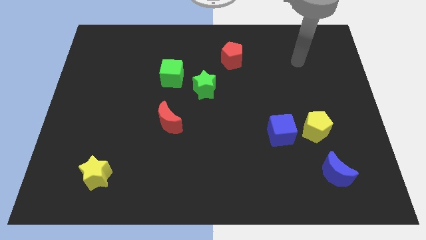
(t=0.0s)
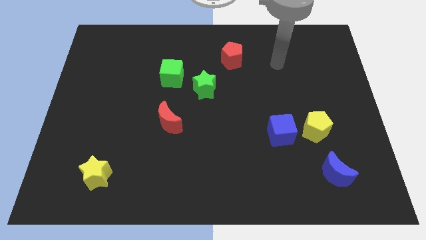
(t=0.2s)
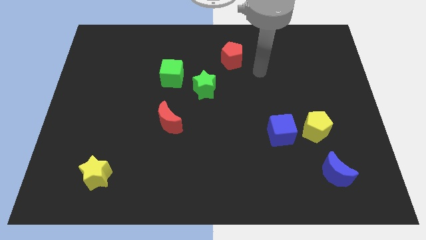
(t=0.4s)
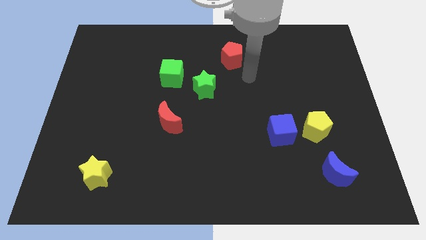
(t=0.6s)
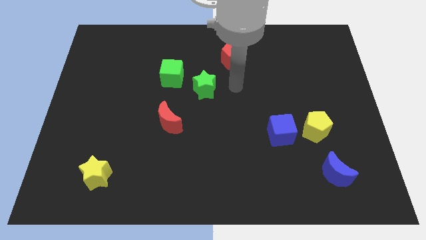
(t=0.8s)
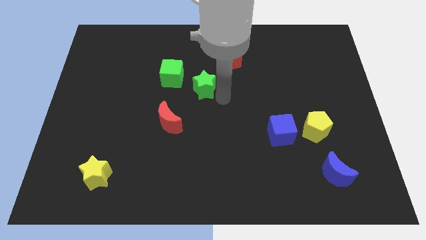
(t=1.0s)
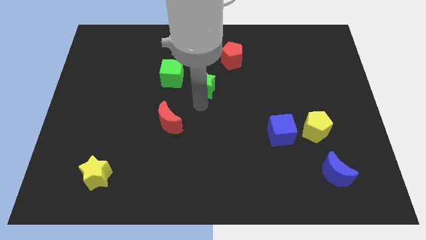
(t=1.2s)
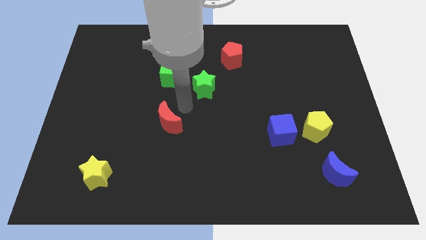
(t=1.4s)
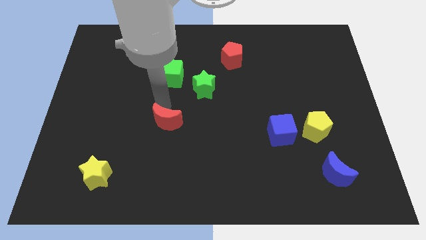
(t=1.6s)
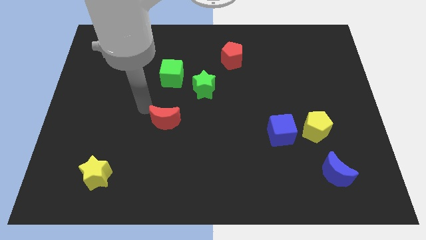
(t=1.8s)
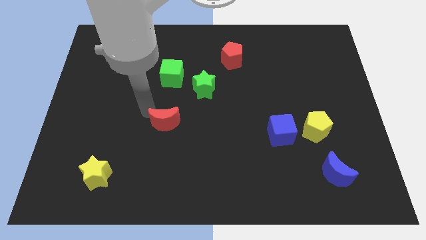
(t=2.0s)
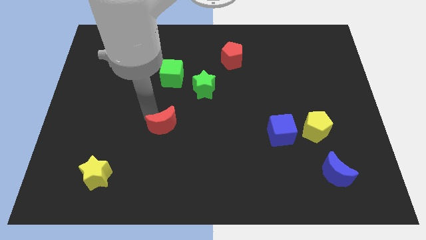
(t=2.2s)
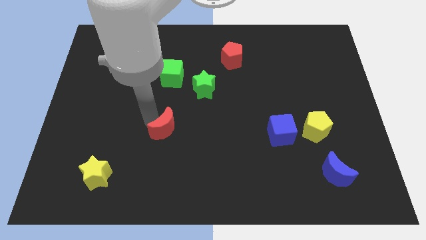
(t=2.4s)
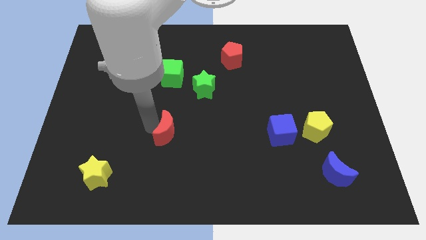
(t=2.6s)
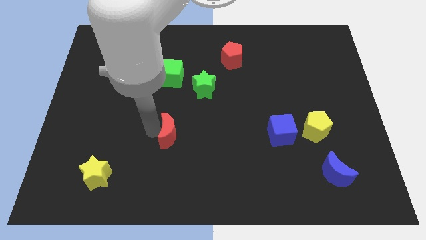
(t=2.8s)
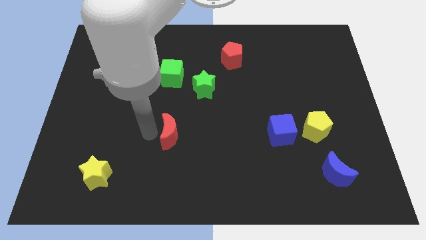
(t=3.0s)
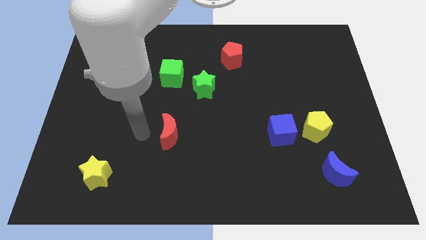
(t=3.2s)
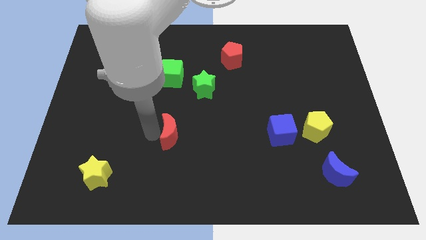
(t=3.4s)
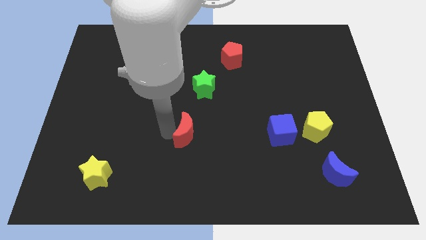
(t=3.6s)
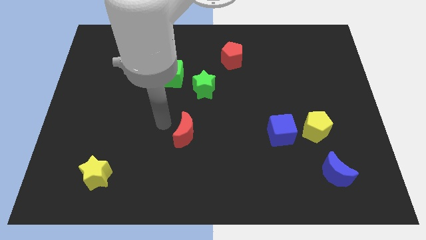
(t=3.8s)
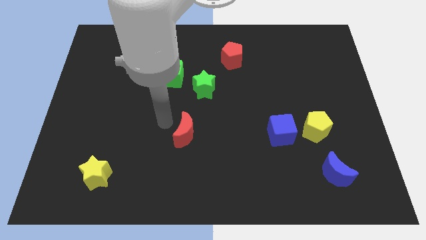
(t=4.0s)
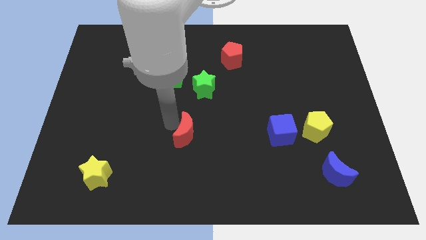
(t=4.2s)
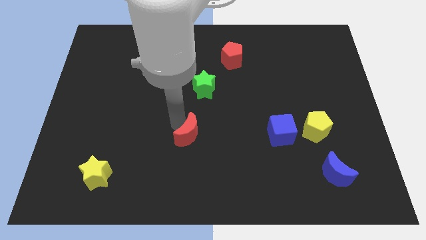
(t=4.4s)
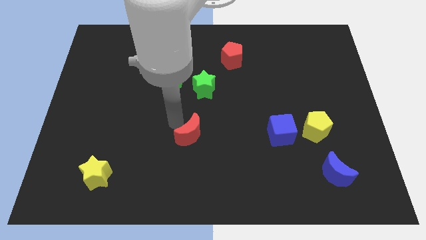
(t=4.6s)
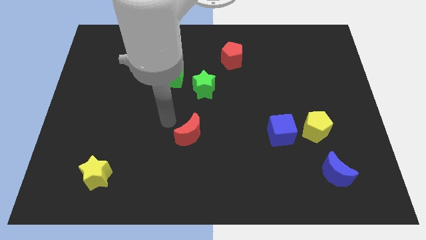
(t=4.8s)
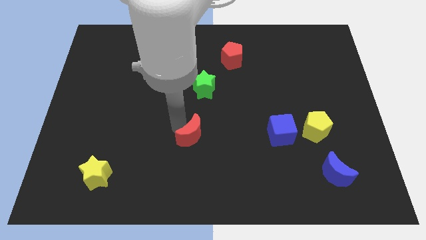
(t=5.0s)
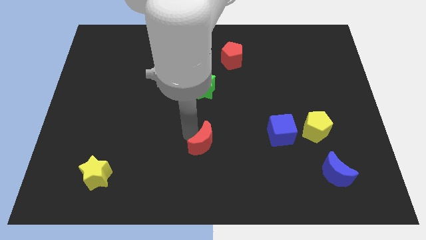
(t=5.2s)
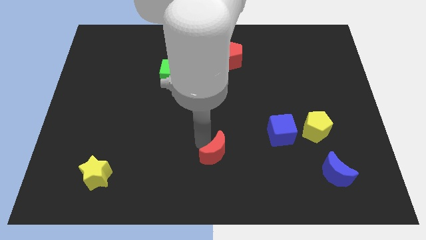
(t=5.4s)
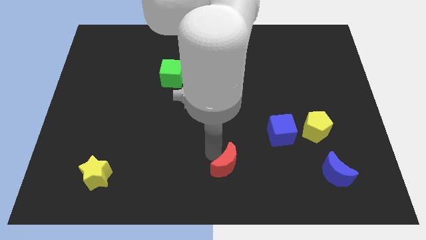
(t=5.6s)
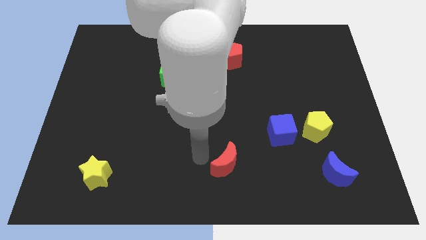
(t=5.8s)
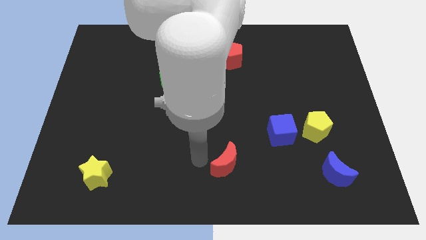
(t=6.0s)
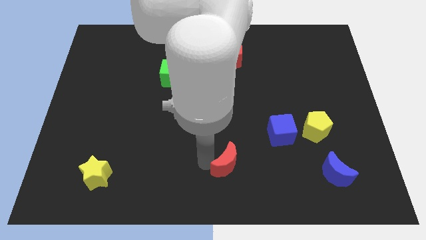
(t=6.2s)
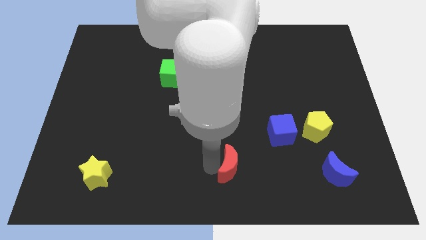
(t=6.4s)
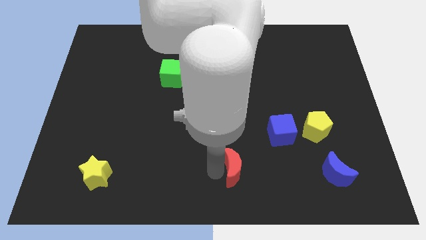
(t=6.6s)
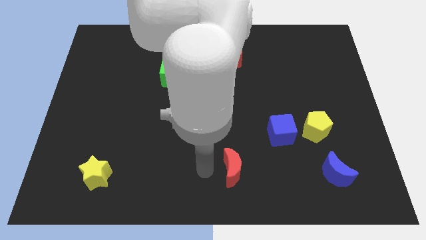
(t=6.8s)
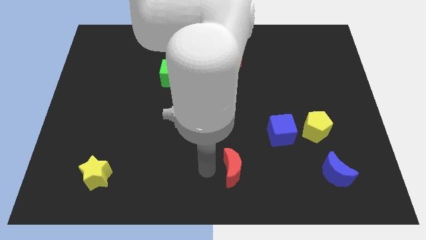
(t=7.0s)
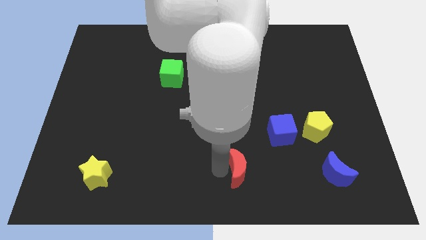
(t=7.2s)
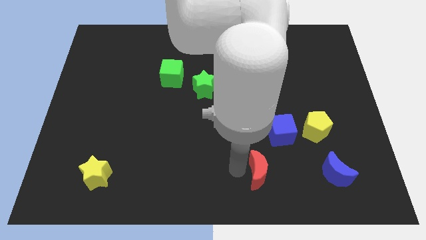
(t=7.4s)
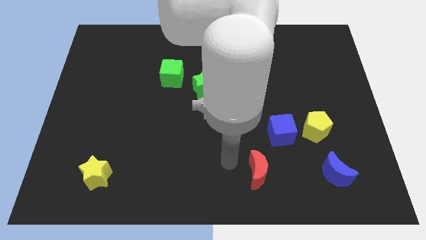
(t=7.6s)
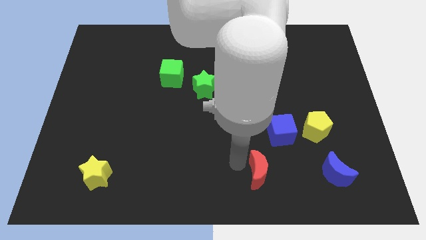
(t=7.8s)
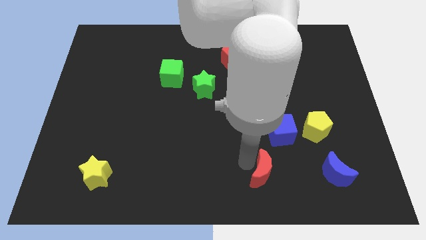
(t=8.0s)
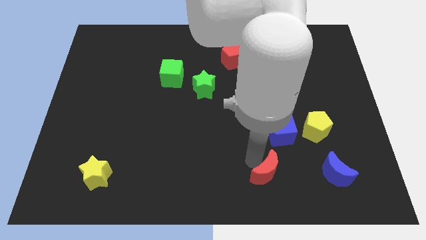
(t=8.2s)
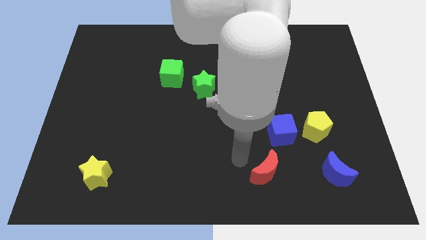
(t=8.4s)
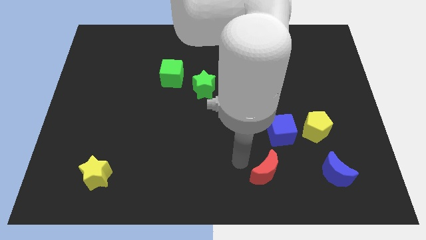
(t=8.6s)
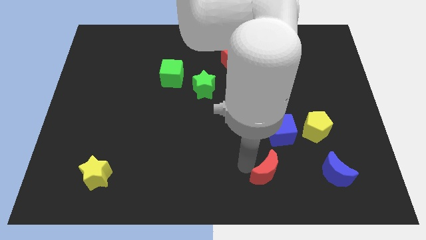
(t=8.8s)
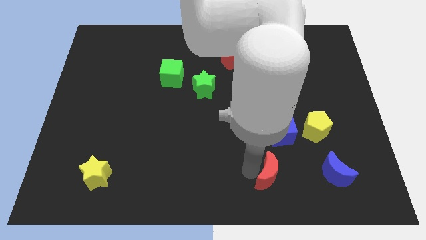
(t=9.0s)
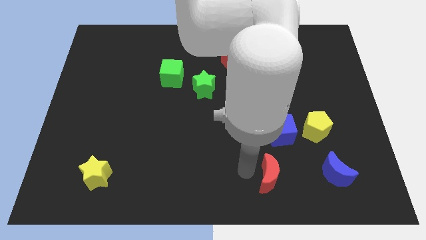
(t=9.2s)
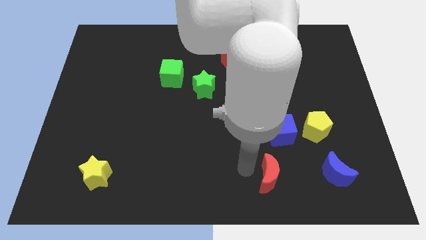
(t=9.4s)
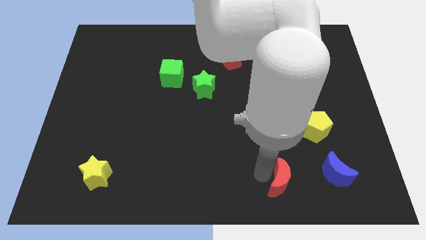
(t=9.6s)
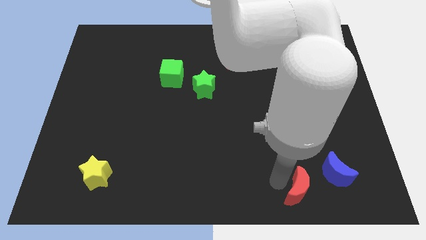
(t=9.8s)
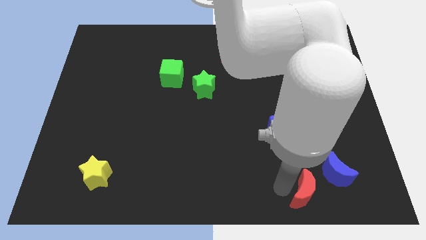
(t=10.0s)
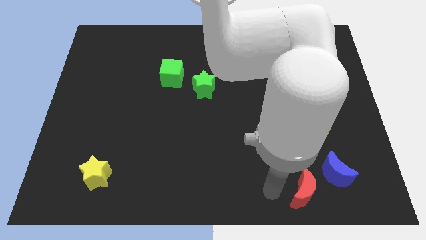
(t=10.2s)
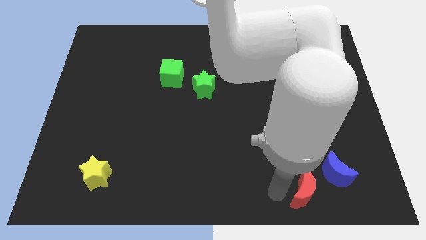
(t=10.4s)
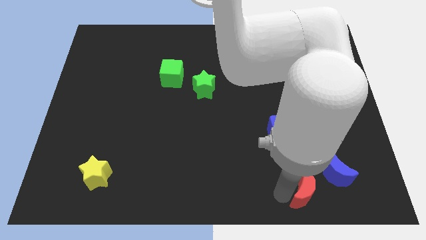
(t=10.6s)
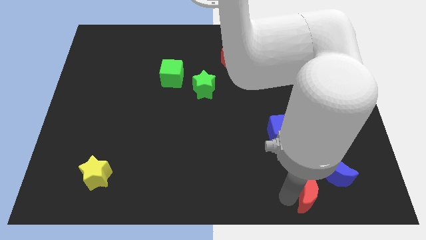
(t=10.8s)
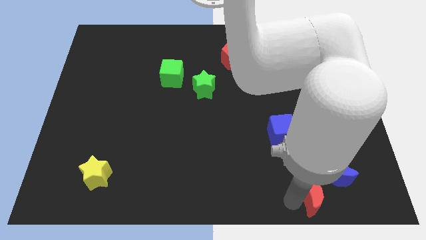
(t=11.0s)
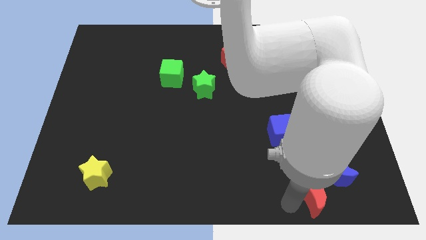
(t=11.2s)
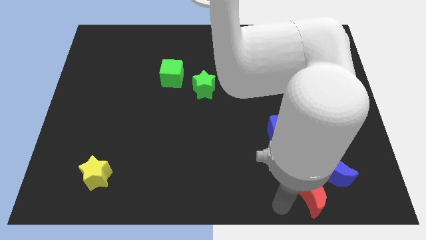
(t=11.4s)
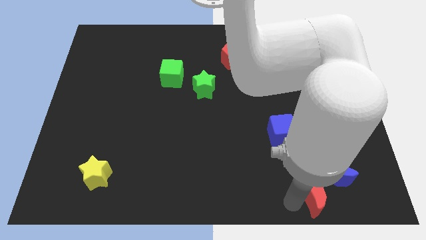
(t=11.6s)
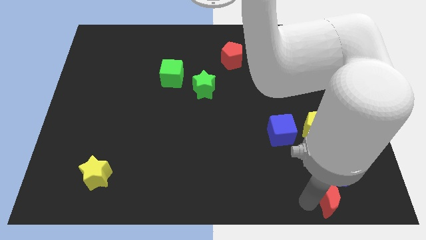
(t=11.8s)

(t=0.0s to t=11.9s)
move the red moon to the bottom side of the yellow pentagon
